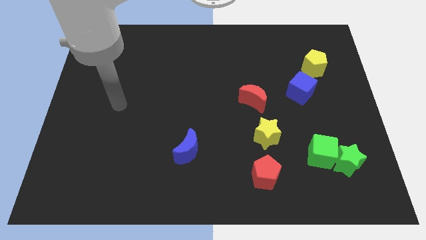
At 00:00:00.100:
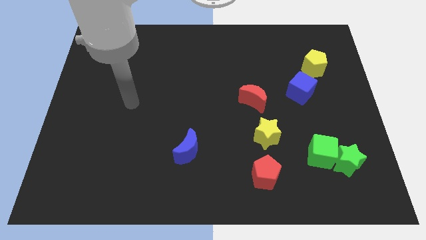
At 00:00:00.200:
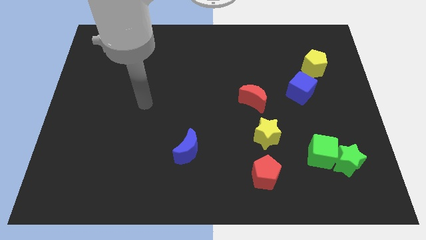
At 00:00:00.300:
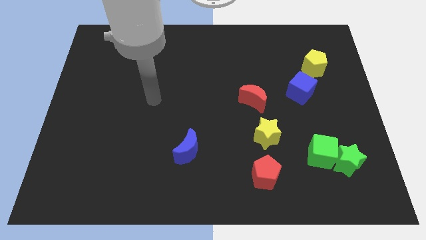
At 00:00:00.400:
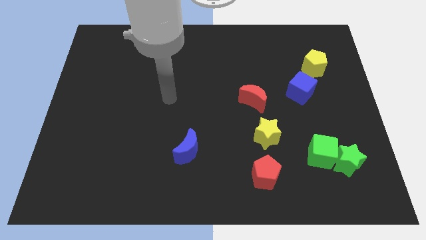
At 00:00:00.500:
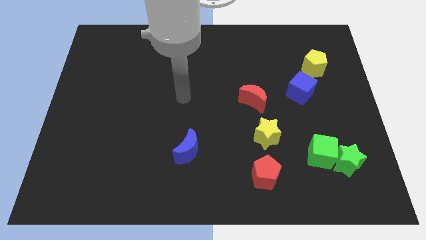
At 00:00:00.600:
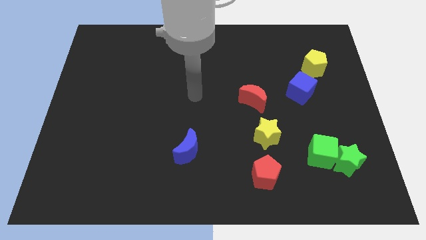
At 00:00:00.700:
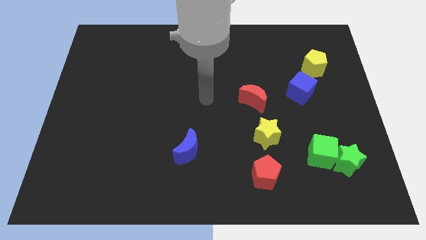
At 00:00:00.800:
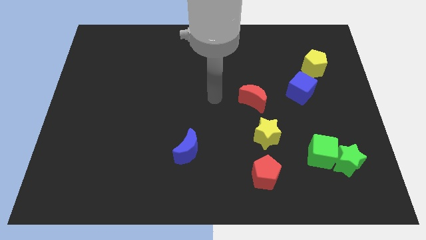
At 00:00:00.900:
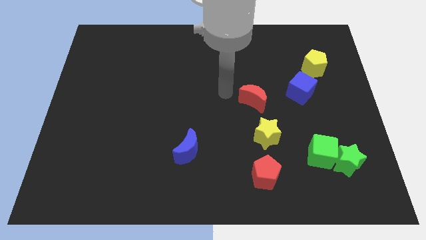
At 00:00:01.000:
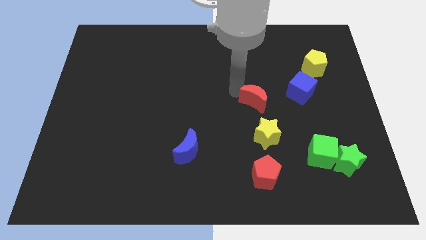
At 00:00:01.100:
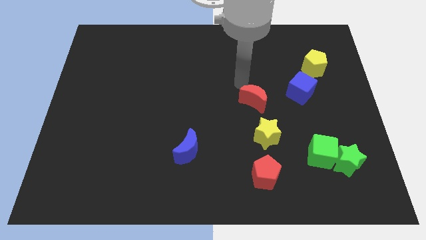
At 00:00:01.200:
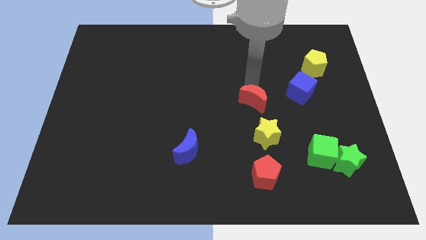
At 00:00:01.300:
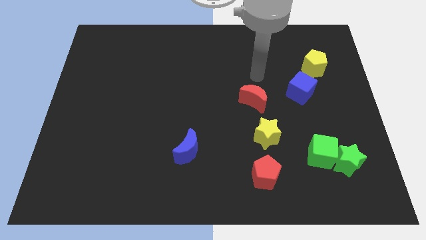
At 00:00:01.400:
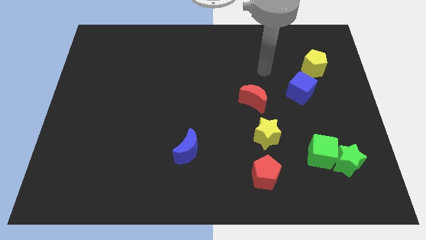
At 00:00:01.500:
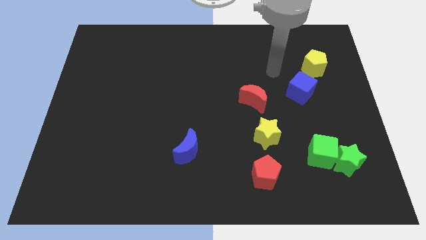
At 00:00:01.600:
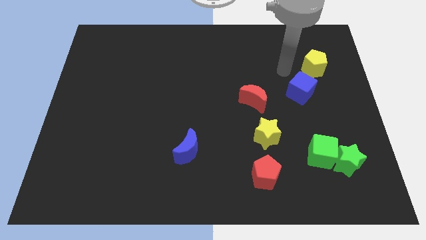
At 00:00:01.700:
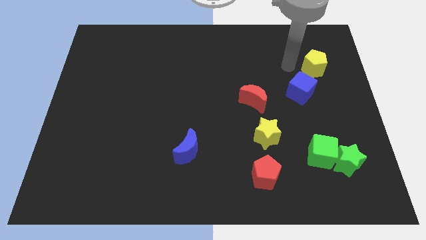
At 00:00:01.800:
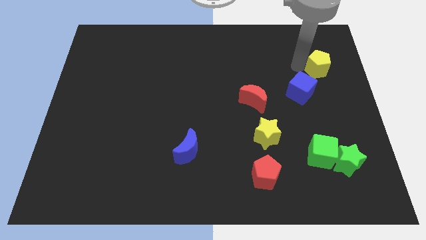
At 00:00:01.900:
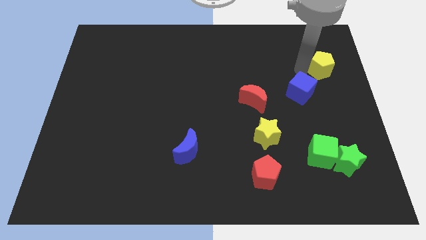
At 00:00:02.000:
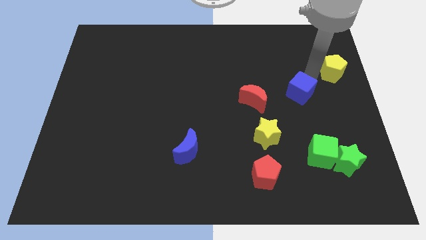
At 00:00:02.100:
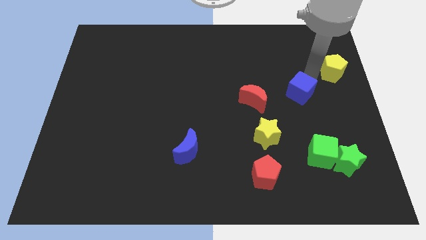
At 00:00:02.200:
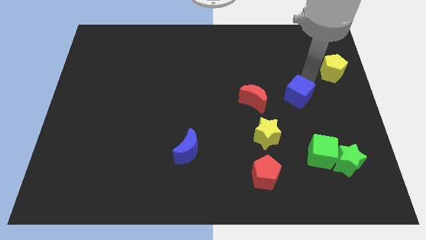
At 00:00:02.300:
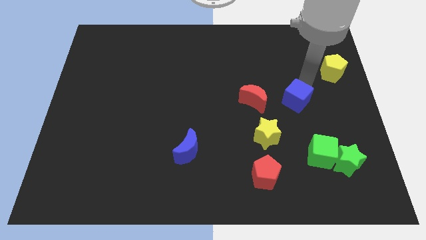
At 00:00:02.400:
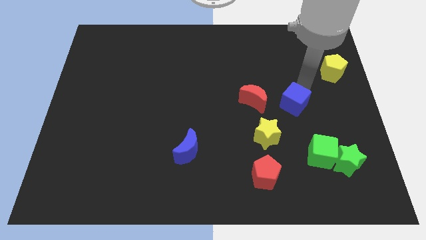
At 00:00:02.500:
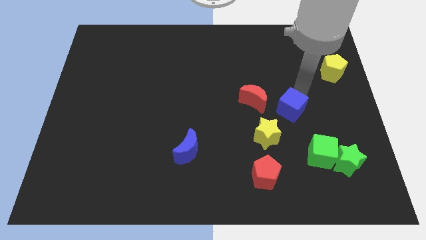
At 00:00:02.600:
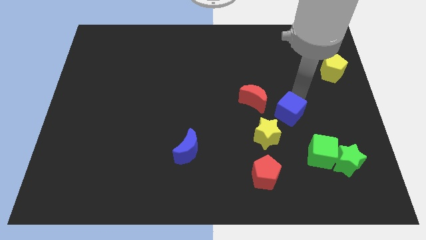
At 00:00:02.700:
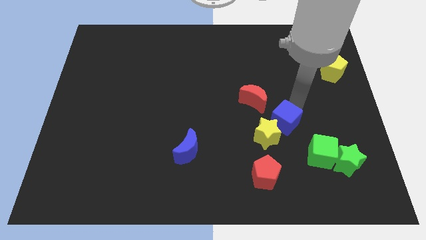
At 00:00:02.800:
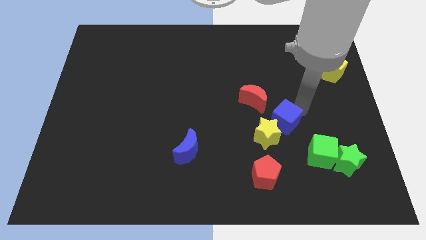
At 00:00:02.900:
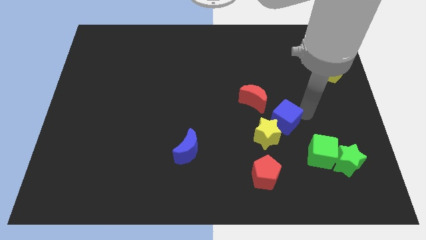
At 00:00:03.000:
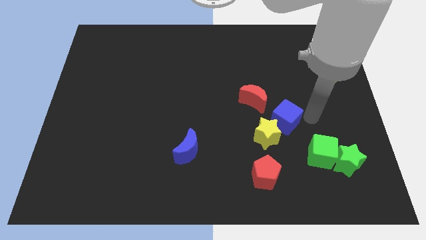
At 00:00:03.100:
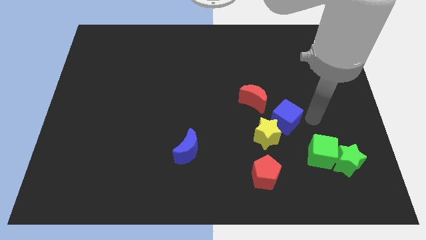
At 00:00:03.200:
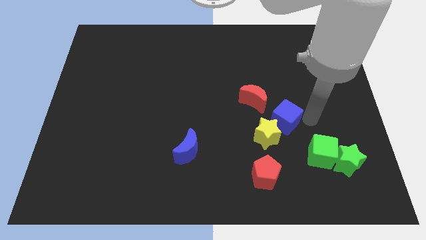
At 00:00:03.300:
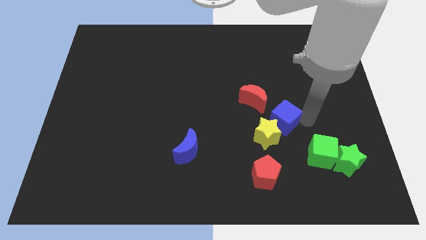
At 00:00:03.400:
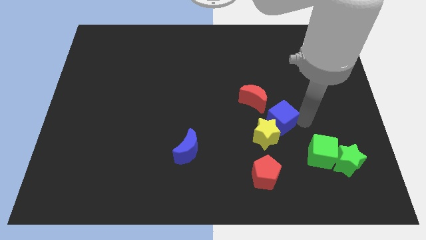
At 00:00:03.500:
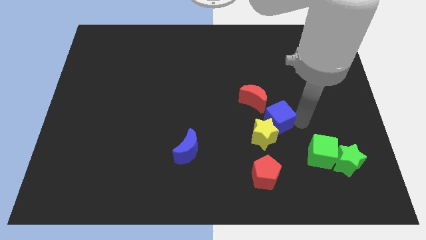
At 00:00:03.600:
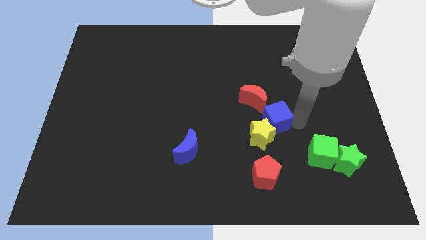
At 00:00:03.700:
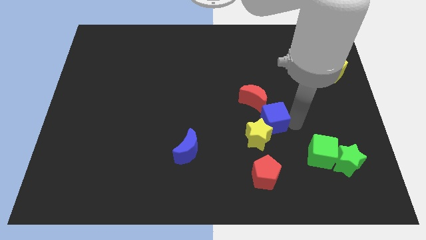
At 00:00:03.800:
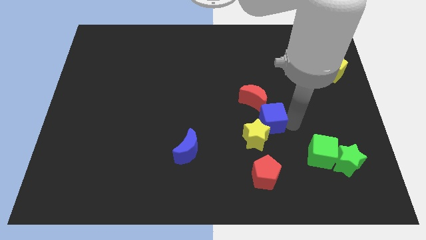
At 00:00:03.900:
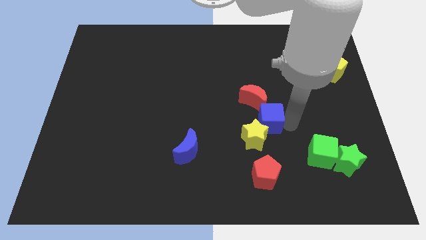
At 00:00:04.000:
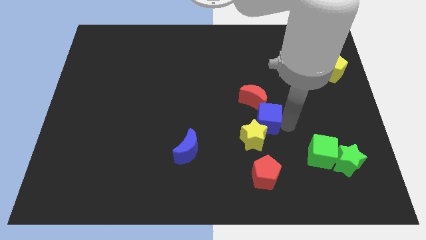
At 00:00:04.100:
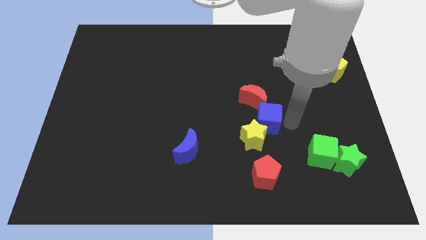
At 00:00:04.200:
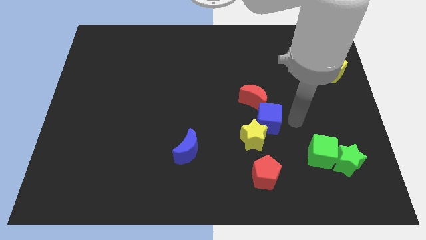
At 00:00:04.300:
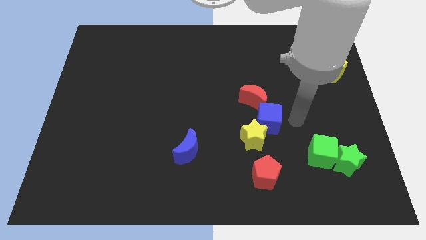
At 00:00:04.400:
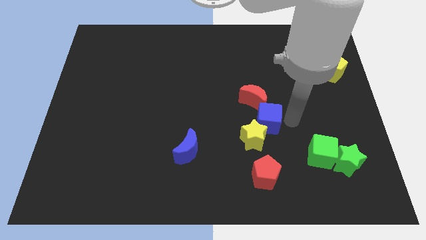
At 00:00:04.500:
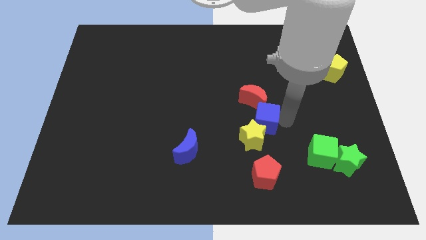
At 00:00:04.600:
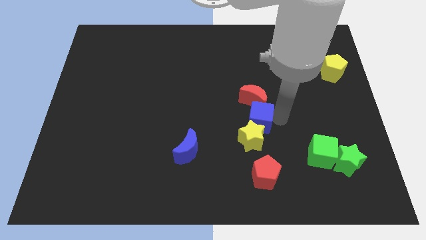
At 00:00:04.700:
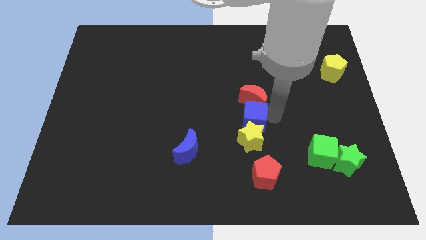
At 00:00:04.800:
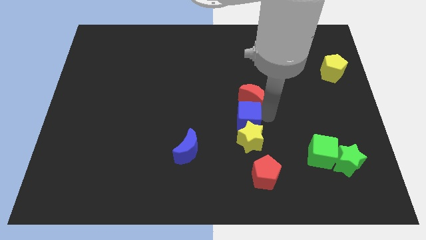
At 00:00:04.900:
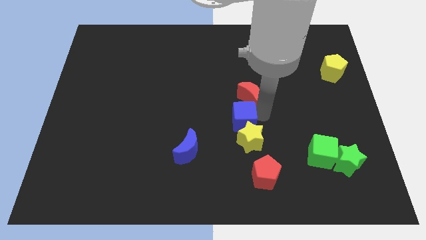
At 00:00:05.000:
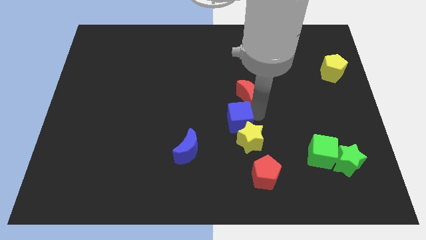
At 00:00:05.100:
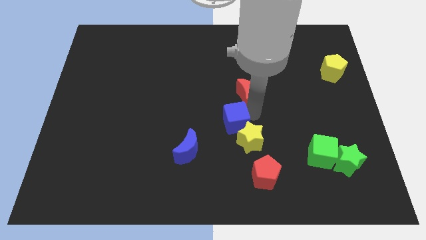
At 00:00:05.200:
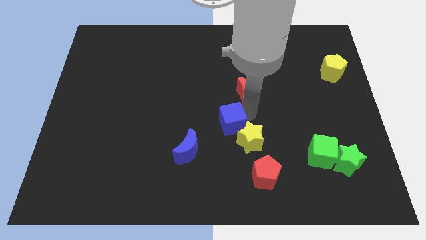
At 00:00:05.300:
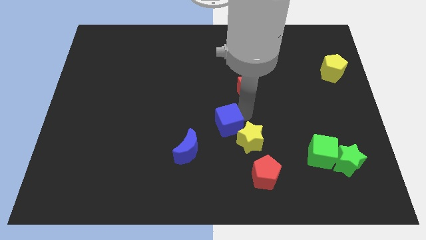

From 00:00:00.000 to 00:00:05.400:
put the blue cube to the left side of the yellow star
